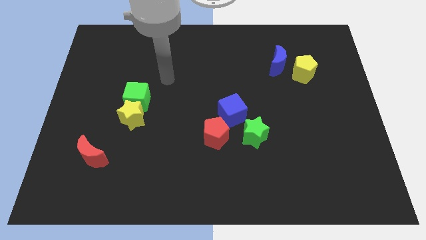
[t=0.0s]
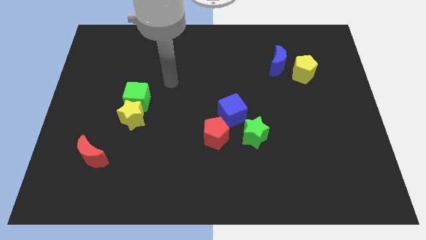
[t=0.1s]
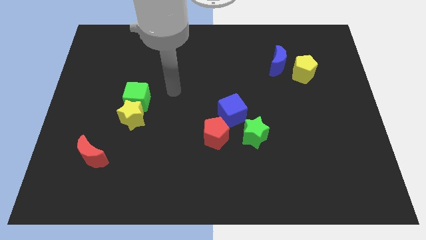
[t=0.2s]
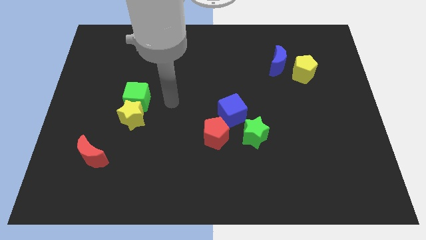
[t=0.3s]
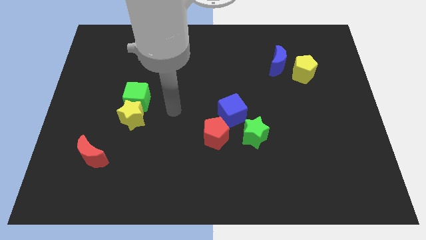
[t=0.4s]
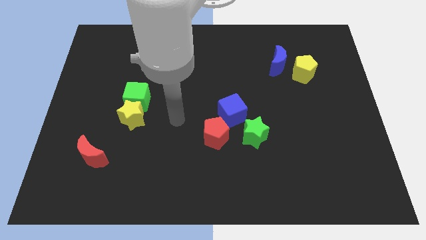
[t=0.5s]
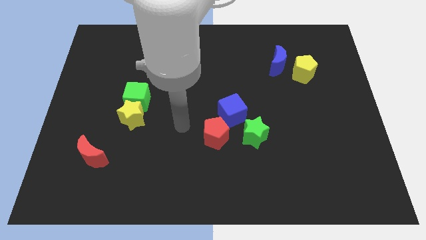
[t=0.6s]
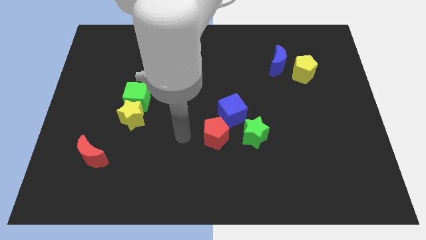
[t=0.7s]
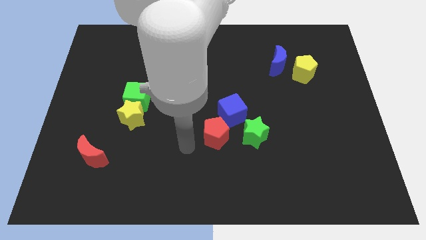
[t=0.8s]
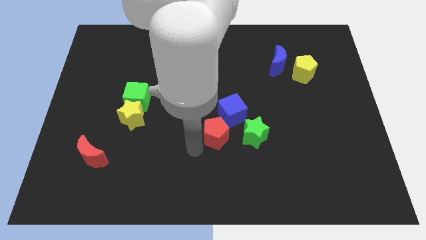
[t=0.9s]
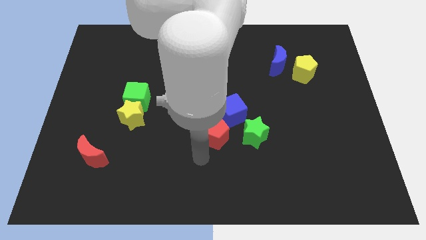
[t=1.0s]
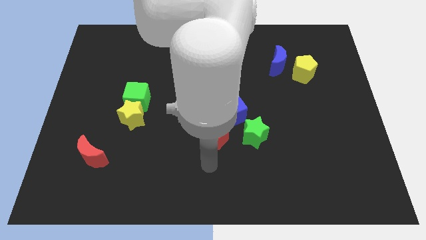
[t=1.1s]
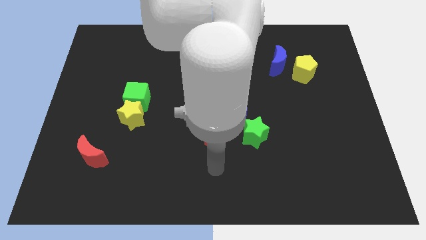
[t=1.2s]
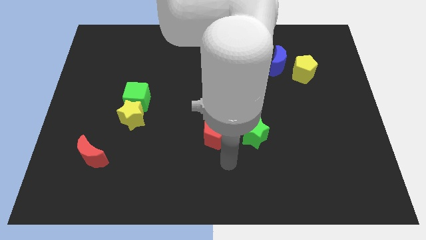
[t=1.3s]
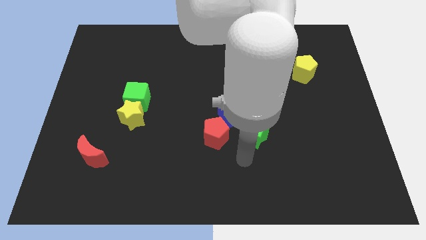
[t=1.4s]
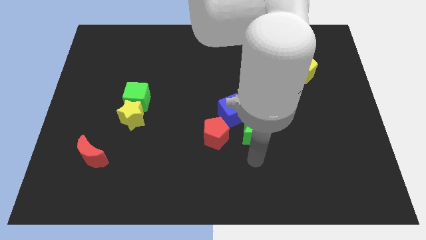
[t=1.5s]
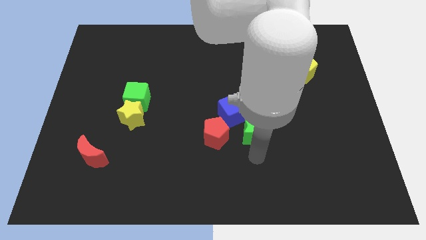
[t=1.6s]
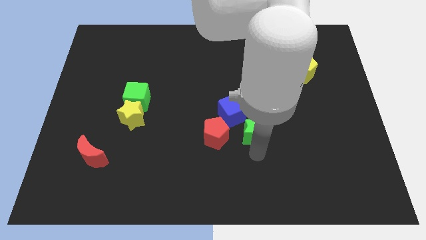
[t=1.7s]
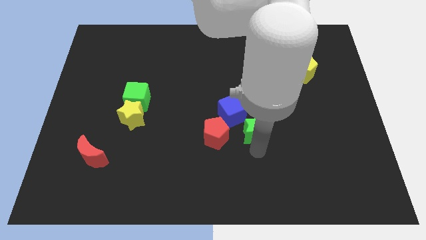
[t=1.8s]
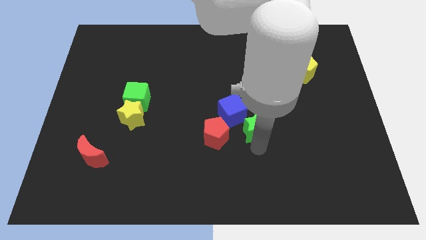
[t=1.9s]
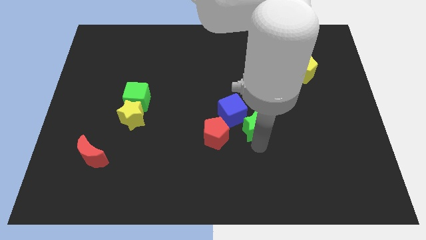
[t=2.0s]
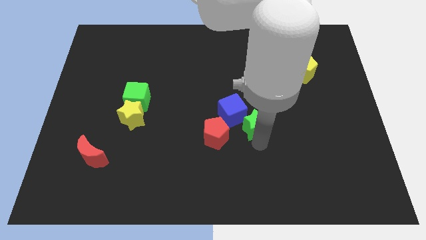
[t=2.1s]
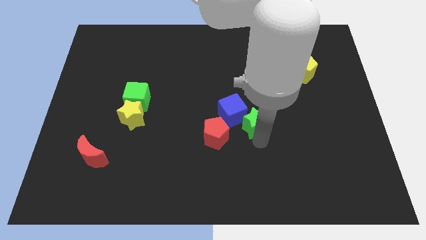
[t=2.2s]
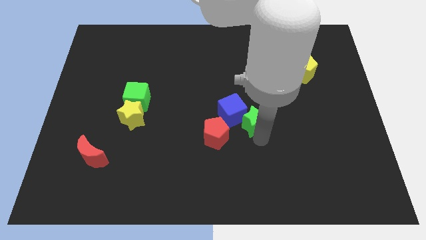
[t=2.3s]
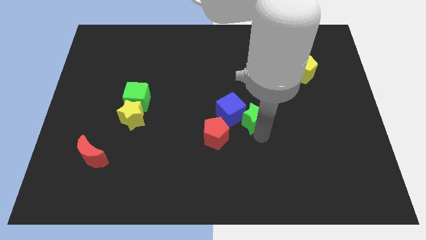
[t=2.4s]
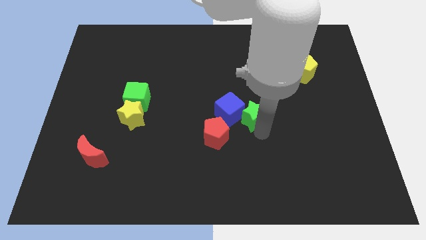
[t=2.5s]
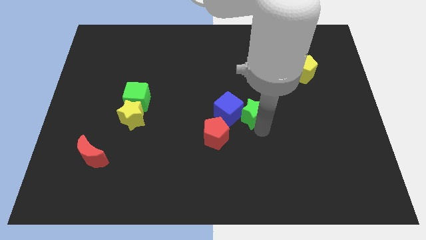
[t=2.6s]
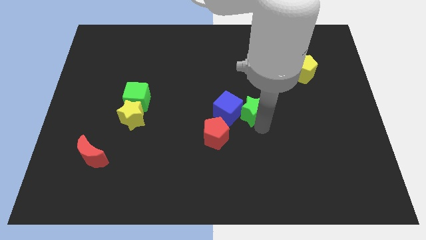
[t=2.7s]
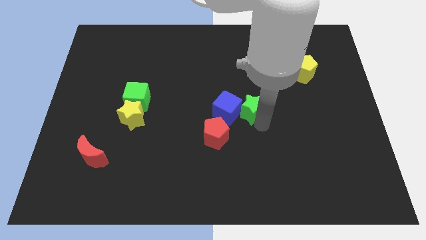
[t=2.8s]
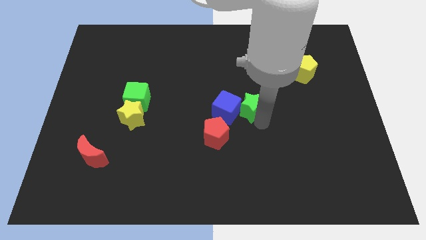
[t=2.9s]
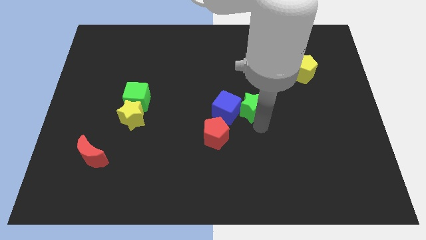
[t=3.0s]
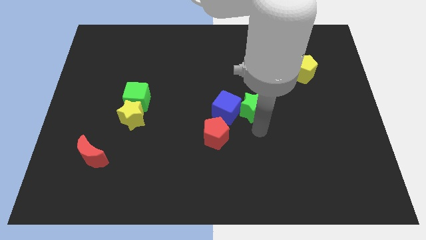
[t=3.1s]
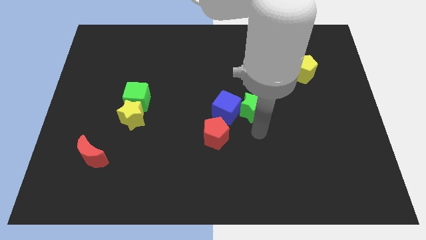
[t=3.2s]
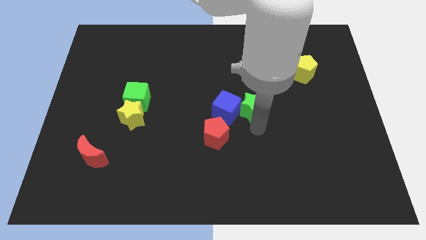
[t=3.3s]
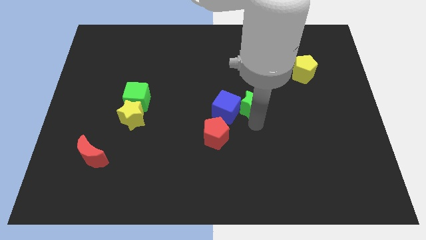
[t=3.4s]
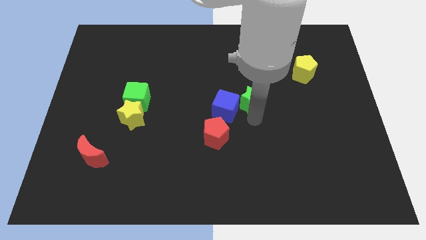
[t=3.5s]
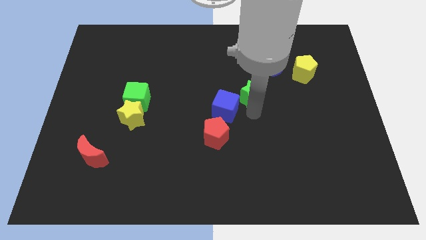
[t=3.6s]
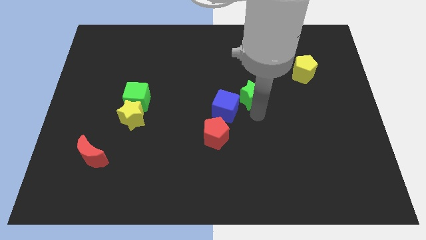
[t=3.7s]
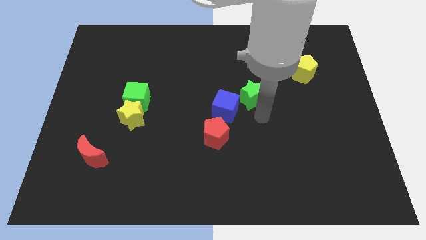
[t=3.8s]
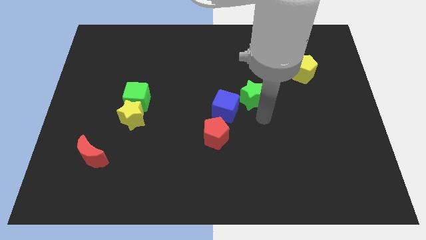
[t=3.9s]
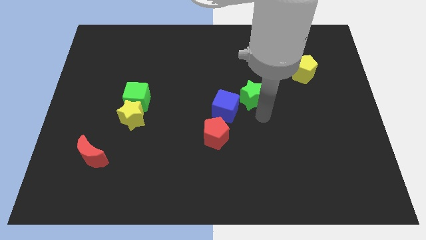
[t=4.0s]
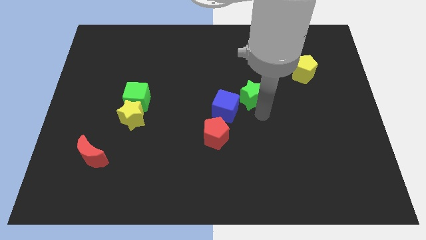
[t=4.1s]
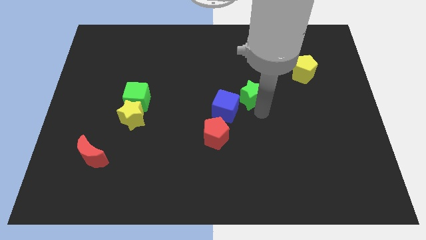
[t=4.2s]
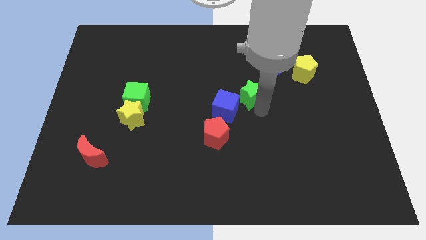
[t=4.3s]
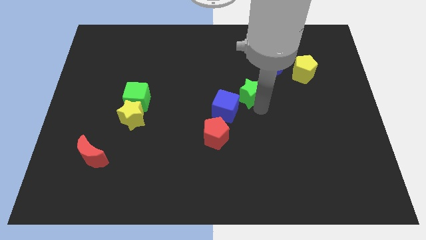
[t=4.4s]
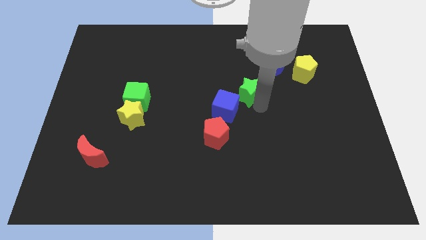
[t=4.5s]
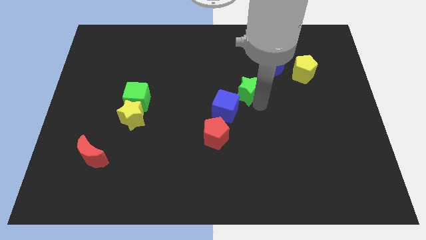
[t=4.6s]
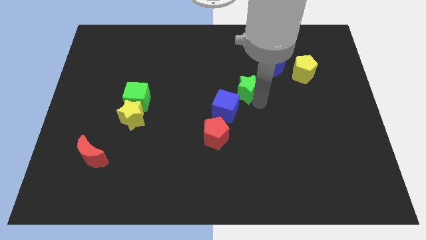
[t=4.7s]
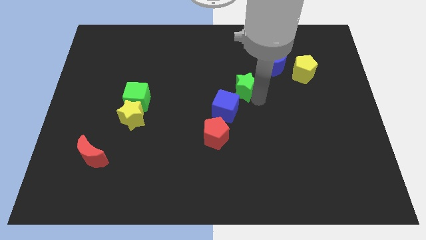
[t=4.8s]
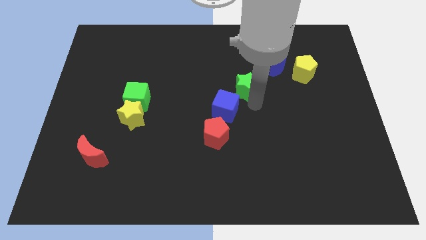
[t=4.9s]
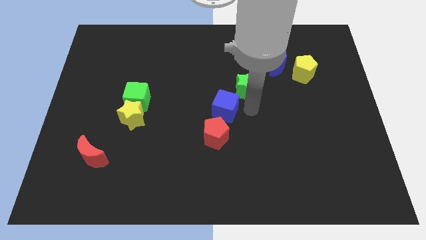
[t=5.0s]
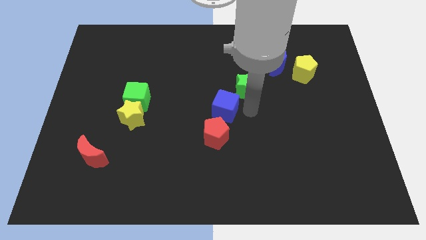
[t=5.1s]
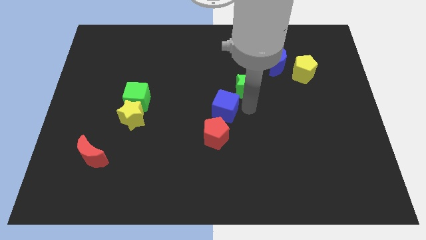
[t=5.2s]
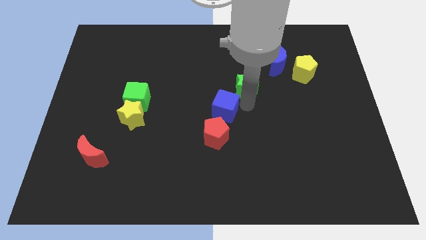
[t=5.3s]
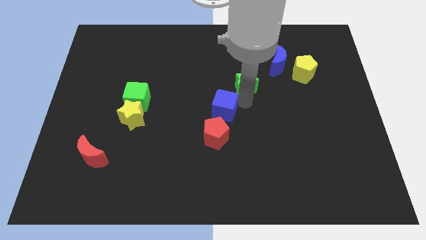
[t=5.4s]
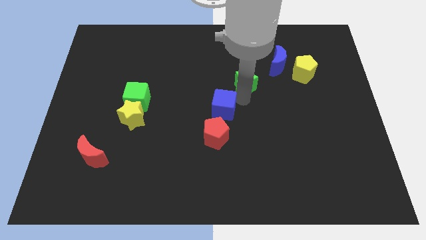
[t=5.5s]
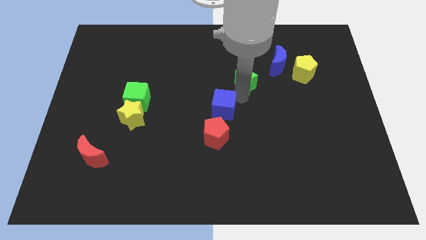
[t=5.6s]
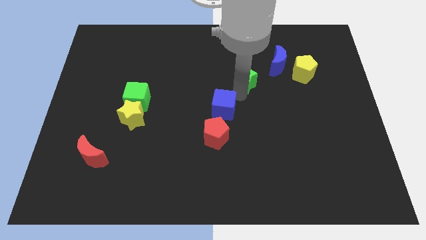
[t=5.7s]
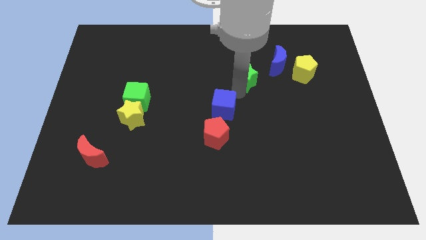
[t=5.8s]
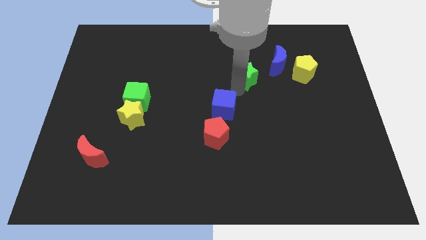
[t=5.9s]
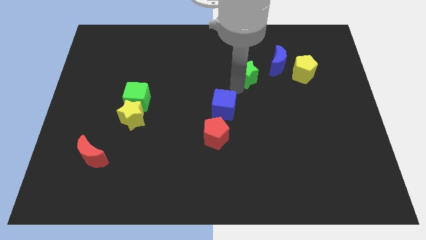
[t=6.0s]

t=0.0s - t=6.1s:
slide the green star to the left of the blue moon

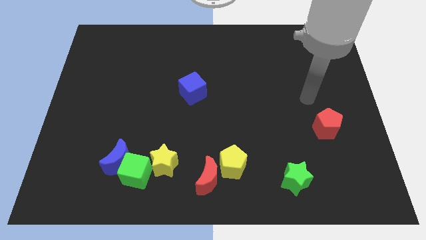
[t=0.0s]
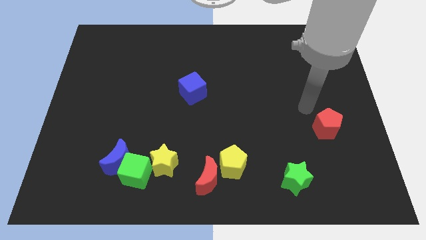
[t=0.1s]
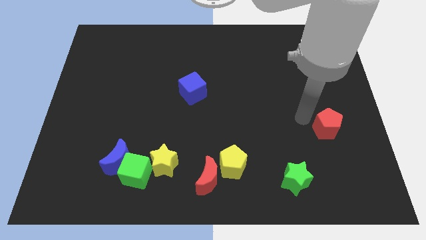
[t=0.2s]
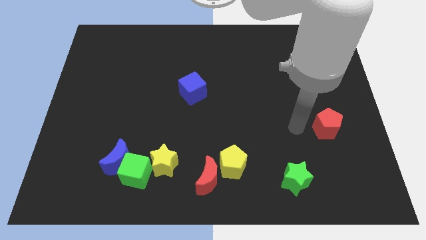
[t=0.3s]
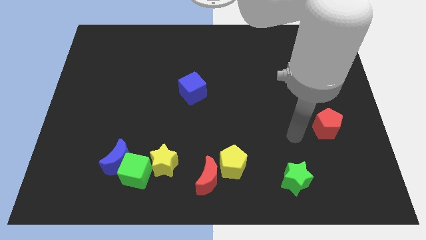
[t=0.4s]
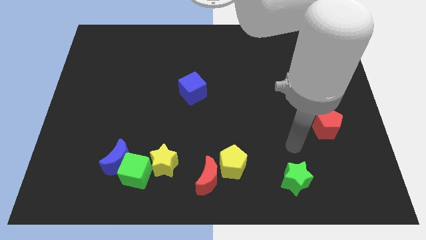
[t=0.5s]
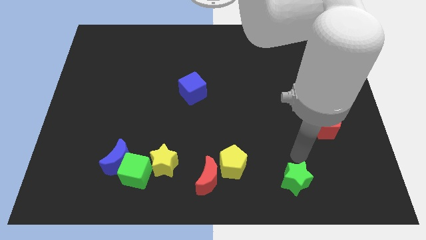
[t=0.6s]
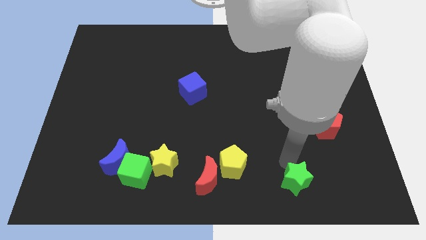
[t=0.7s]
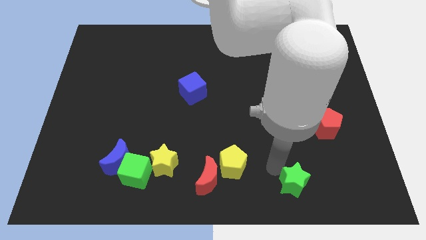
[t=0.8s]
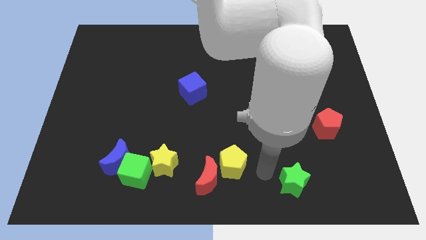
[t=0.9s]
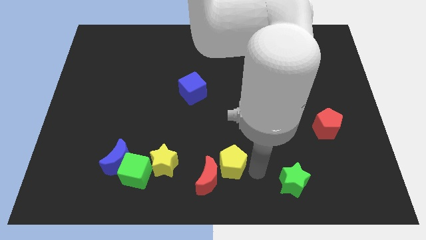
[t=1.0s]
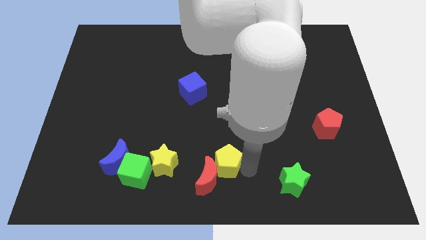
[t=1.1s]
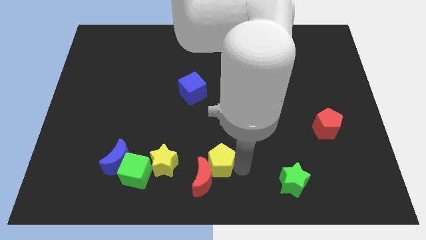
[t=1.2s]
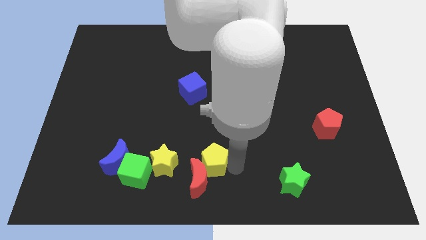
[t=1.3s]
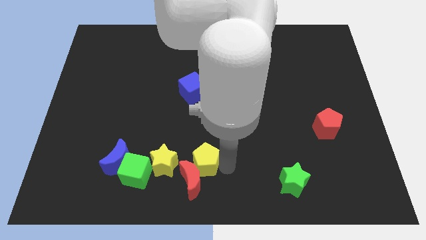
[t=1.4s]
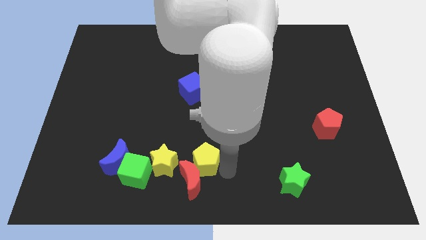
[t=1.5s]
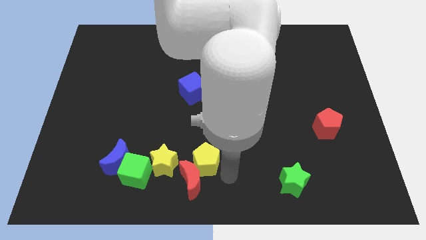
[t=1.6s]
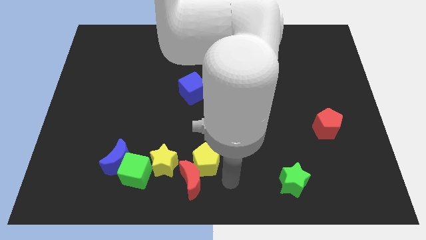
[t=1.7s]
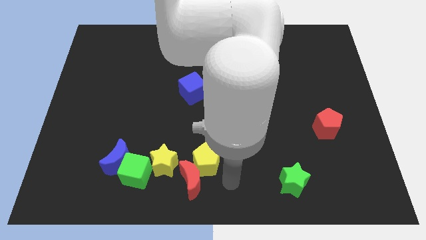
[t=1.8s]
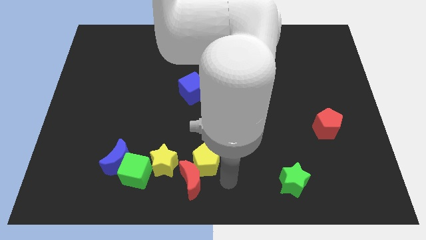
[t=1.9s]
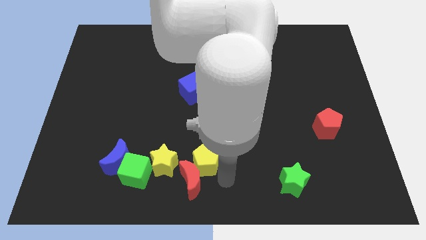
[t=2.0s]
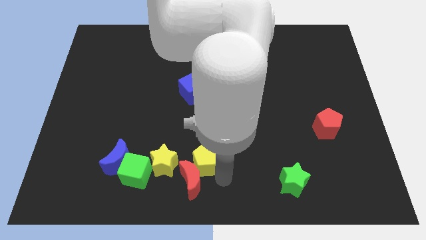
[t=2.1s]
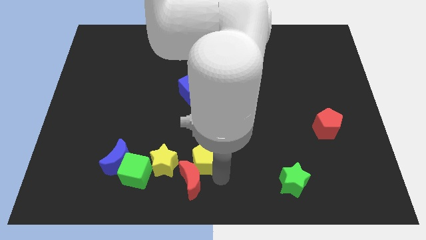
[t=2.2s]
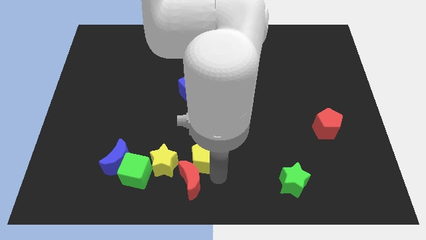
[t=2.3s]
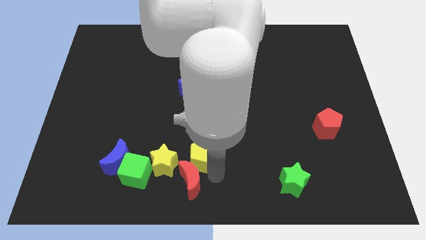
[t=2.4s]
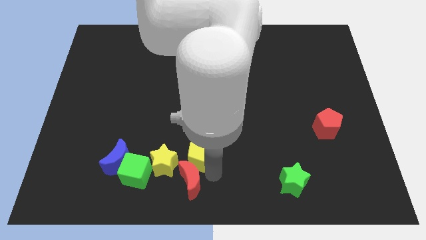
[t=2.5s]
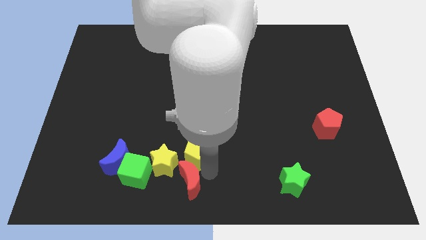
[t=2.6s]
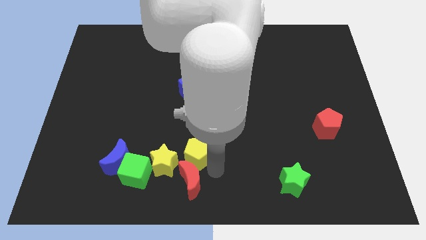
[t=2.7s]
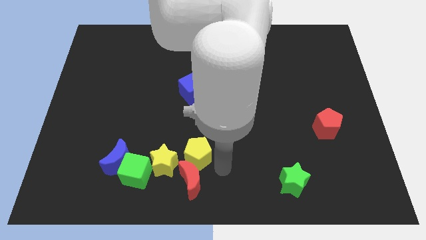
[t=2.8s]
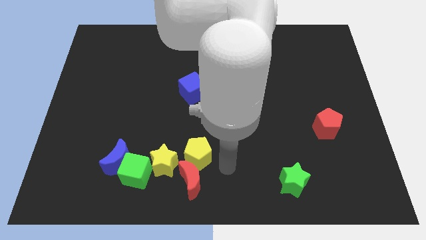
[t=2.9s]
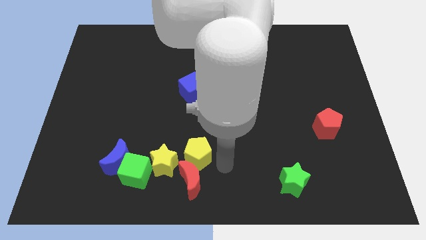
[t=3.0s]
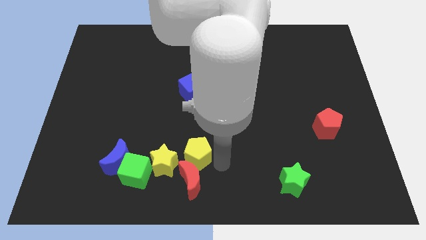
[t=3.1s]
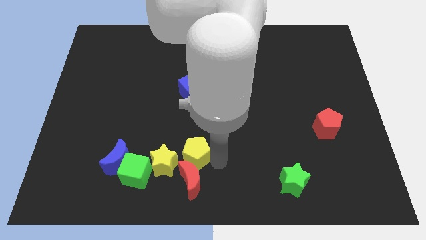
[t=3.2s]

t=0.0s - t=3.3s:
move the yellow pentagon right of the blue moon
